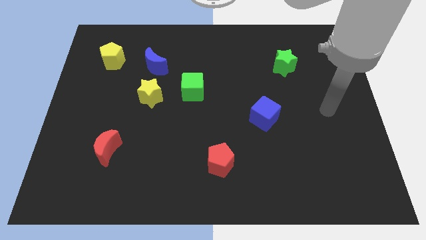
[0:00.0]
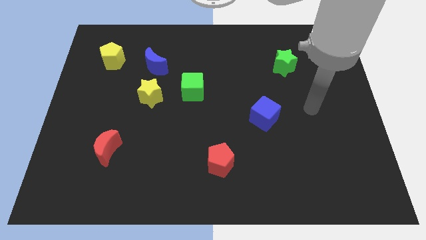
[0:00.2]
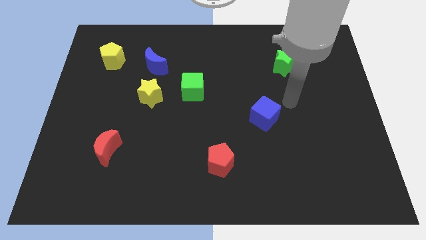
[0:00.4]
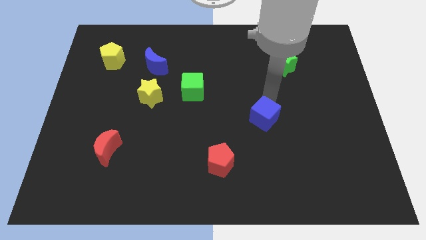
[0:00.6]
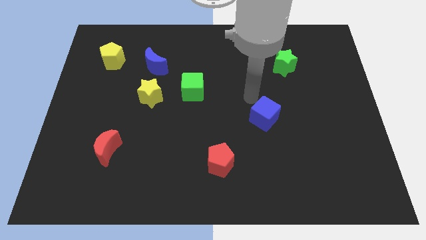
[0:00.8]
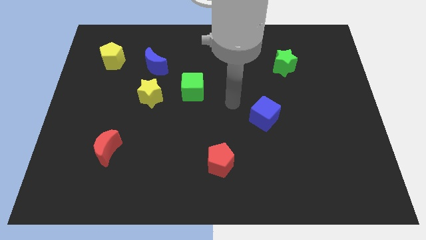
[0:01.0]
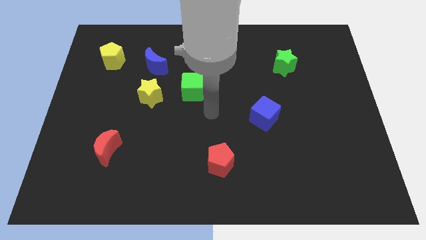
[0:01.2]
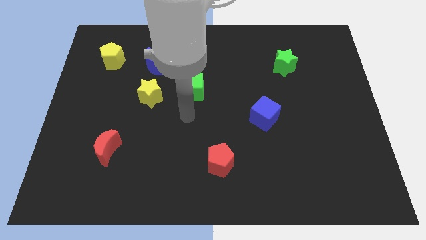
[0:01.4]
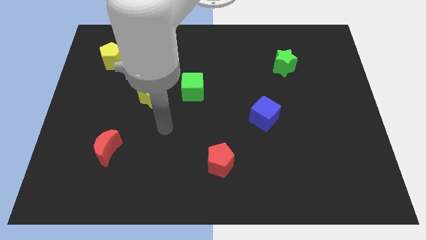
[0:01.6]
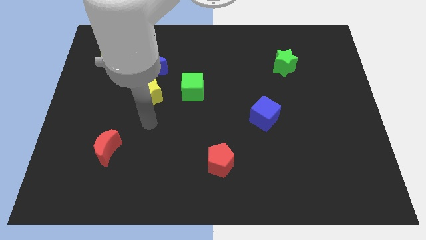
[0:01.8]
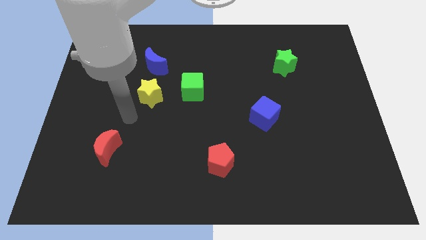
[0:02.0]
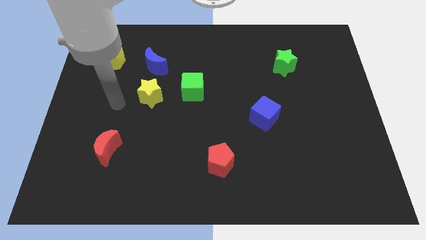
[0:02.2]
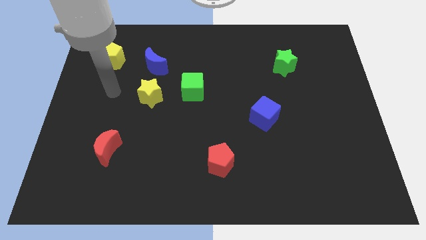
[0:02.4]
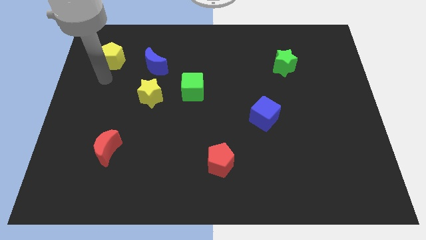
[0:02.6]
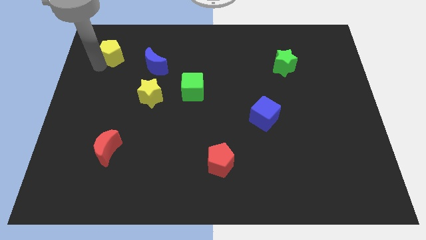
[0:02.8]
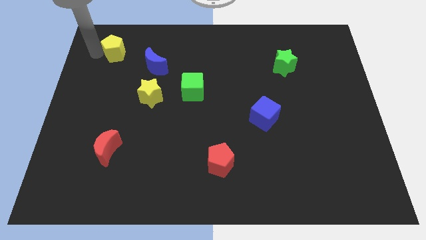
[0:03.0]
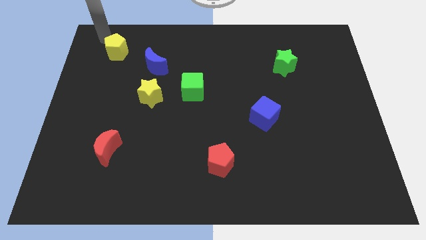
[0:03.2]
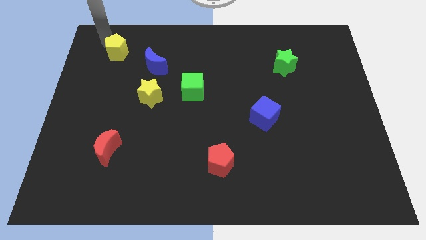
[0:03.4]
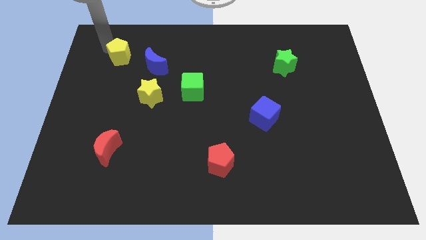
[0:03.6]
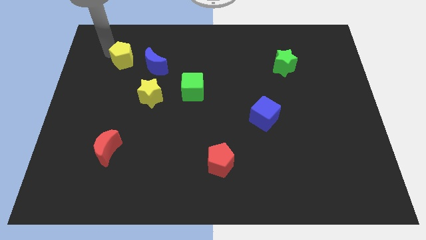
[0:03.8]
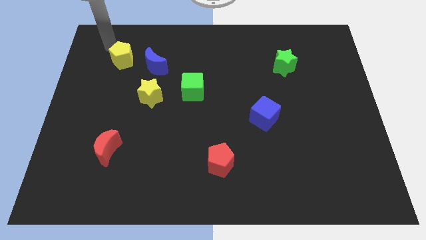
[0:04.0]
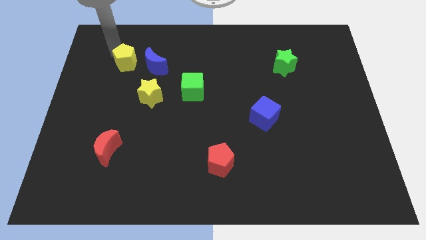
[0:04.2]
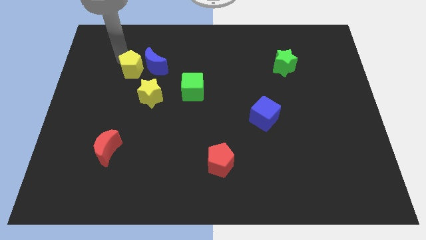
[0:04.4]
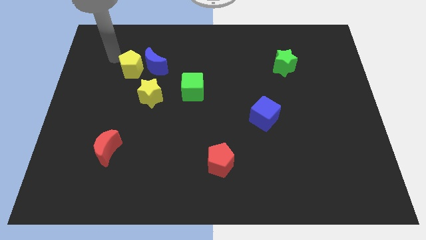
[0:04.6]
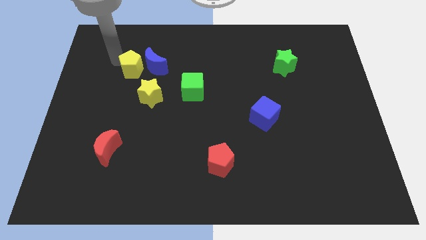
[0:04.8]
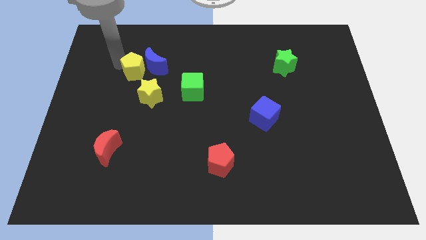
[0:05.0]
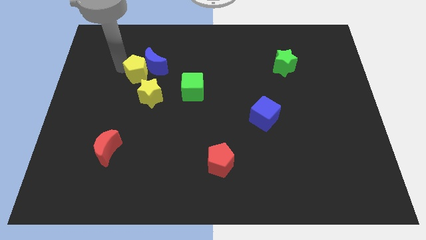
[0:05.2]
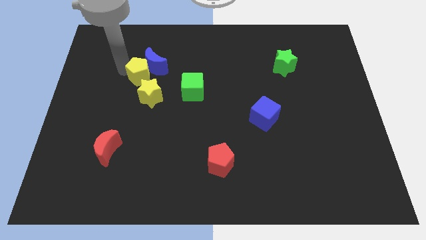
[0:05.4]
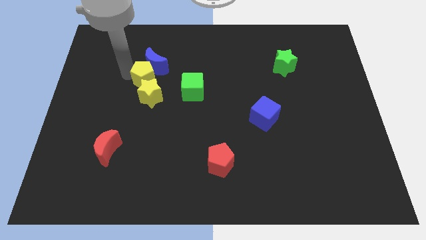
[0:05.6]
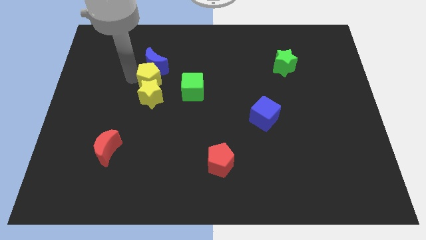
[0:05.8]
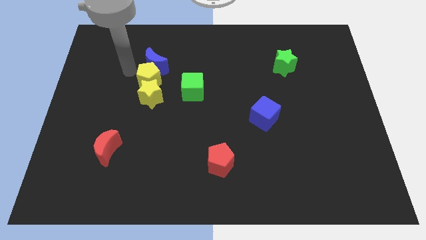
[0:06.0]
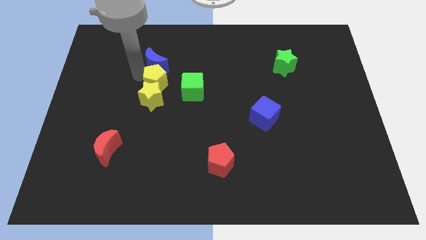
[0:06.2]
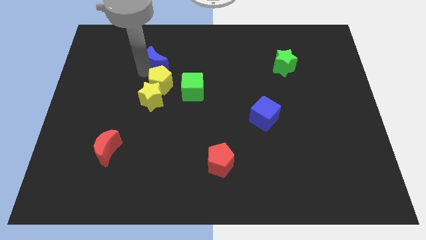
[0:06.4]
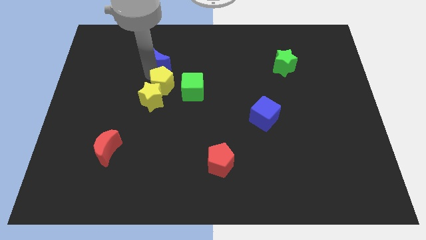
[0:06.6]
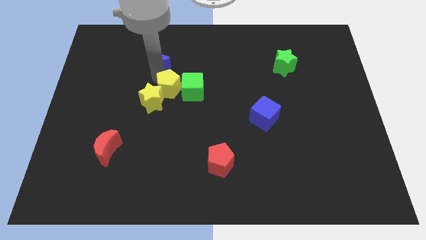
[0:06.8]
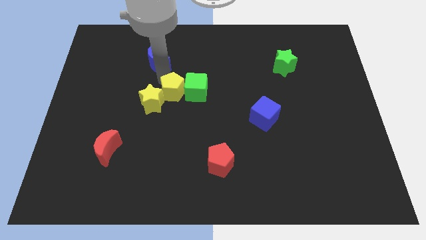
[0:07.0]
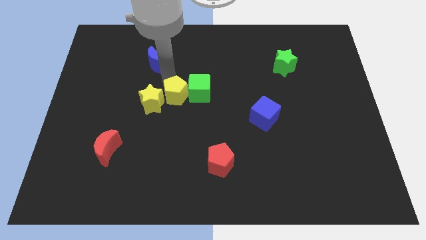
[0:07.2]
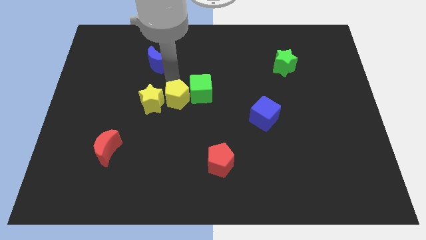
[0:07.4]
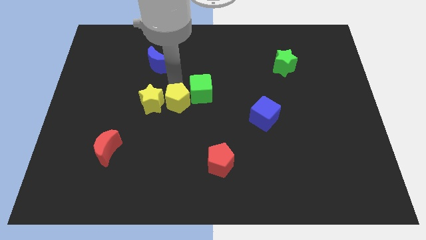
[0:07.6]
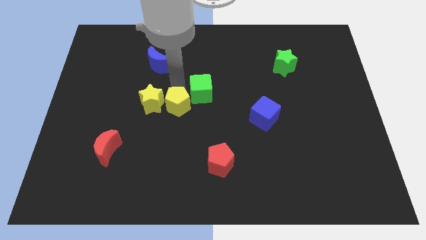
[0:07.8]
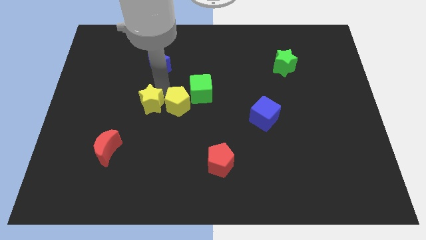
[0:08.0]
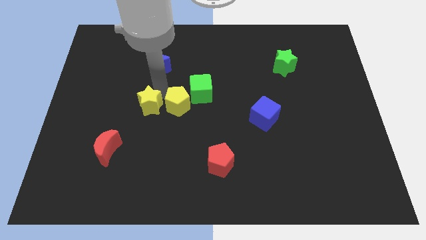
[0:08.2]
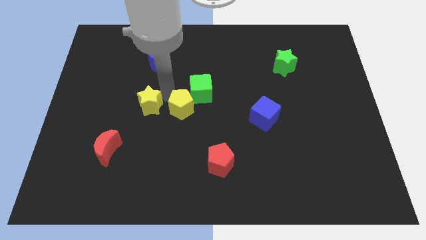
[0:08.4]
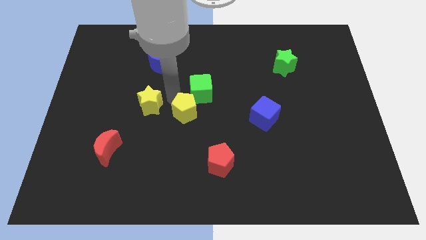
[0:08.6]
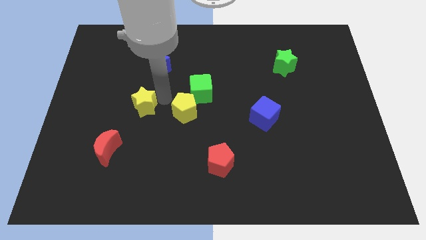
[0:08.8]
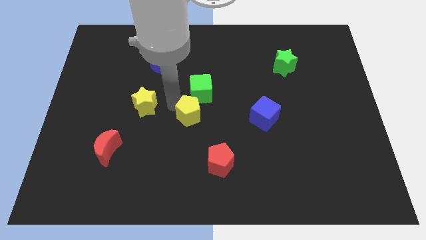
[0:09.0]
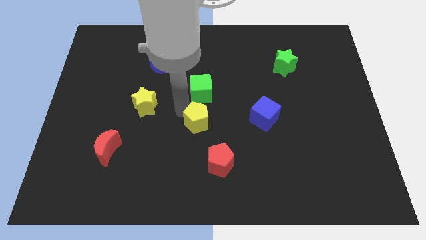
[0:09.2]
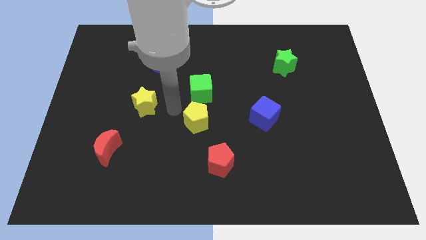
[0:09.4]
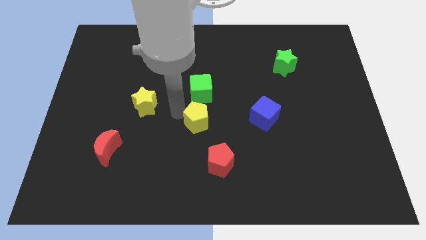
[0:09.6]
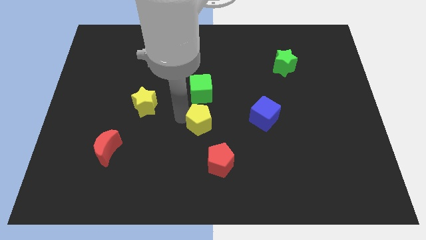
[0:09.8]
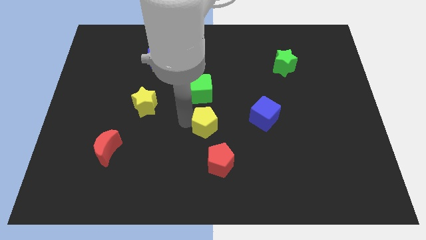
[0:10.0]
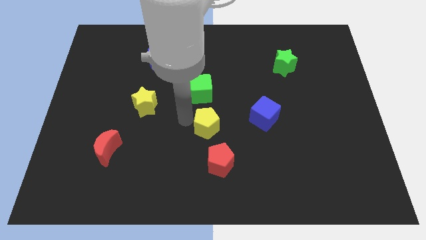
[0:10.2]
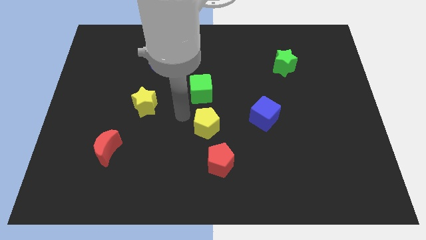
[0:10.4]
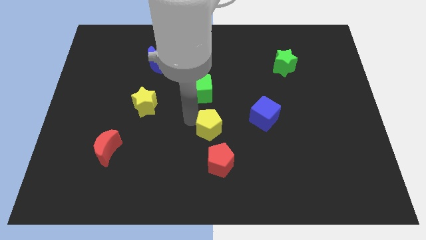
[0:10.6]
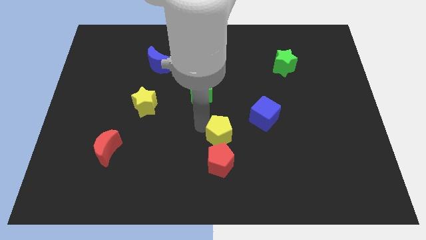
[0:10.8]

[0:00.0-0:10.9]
put the yellow pentagon to the top right side of the red pentagon
